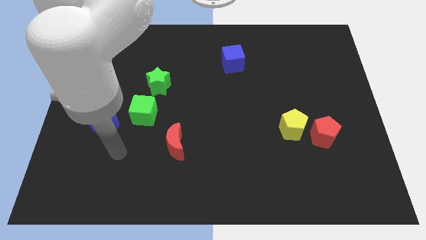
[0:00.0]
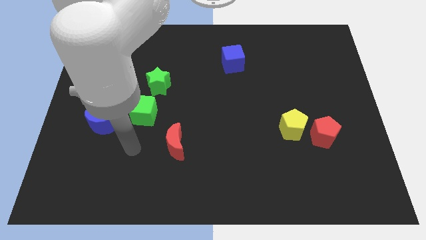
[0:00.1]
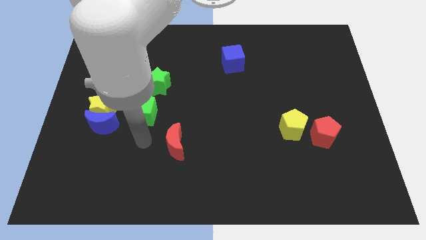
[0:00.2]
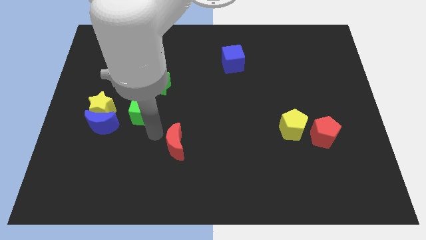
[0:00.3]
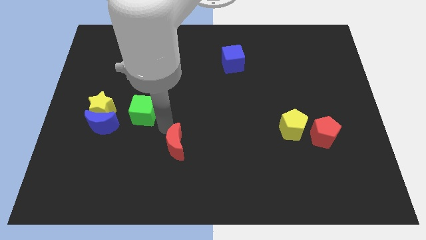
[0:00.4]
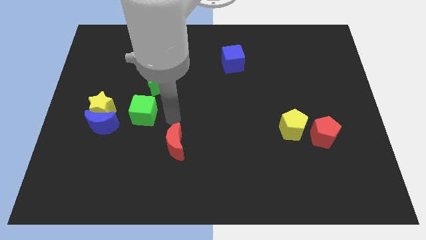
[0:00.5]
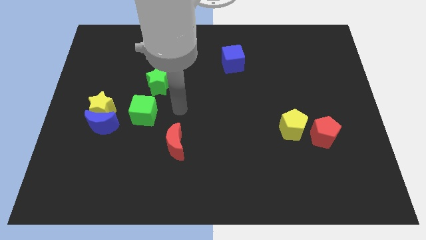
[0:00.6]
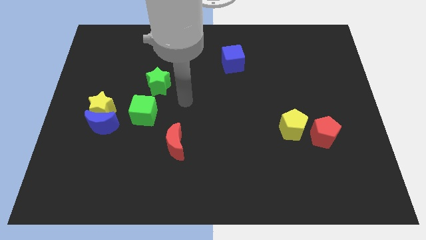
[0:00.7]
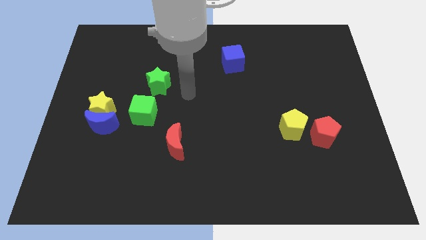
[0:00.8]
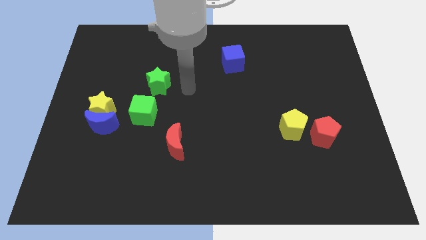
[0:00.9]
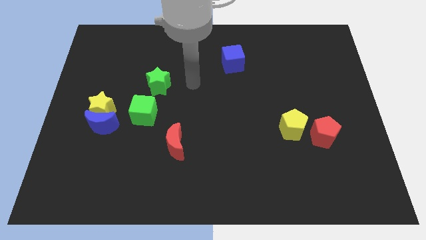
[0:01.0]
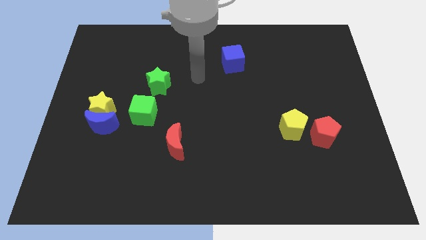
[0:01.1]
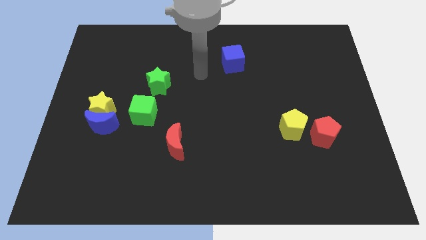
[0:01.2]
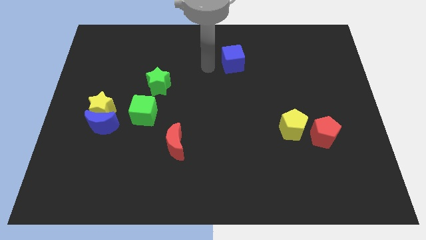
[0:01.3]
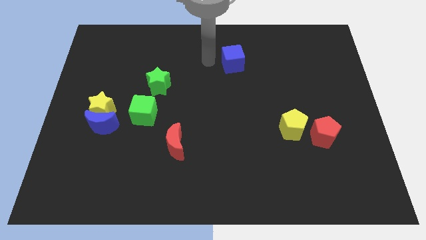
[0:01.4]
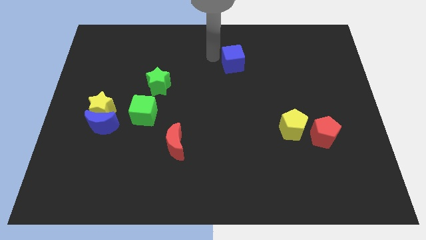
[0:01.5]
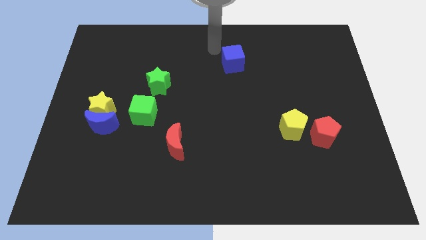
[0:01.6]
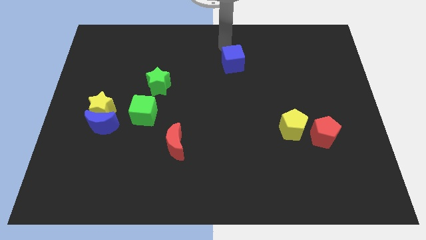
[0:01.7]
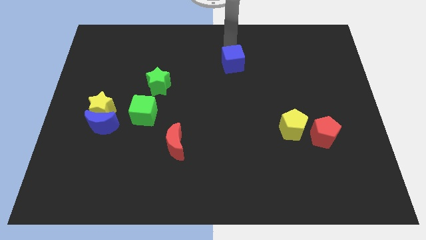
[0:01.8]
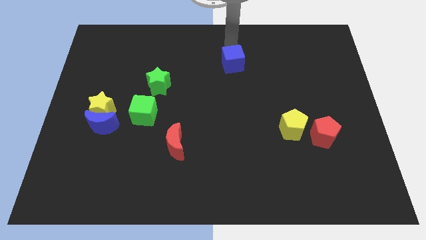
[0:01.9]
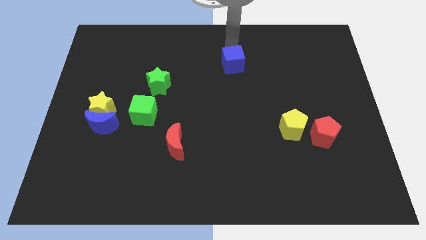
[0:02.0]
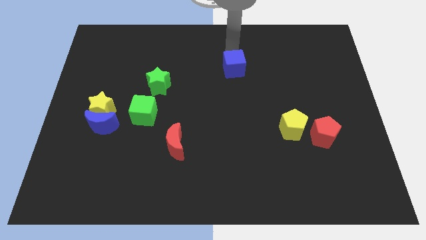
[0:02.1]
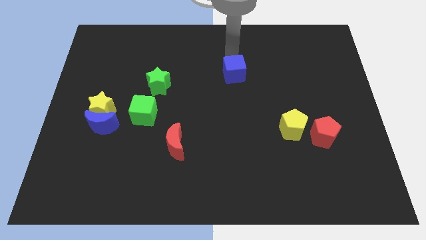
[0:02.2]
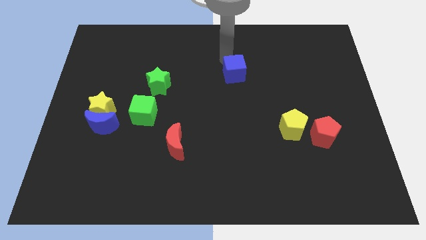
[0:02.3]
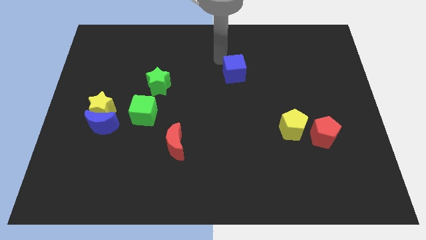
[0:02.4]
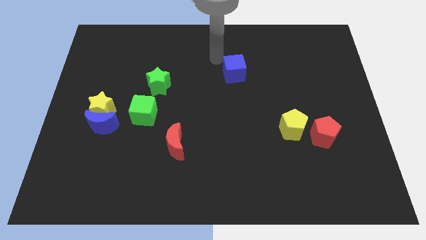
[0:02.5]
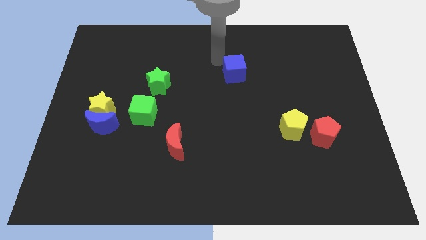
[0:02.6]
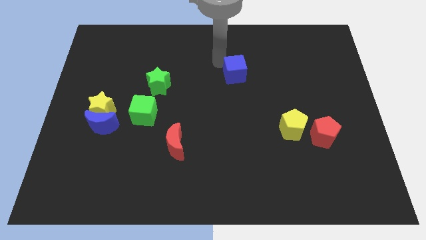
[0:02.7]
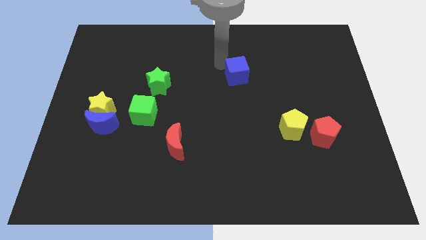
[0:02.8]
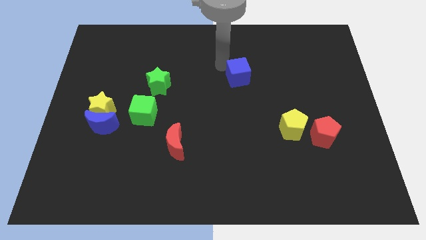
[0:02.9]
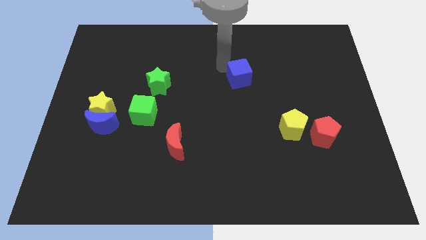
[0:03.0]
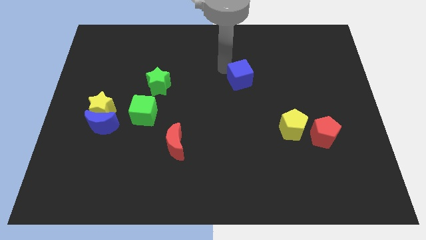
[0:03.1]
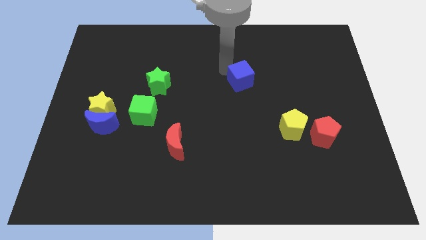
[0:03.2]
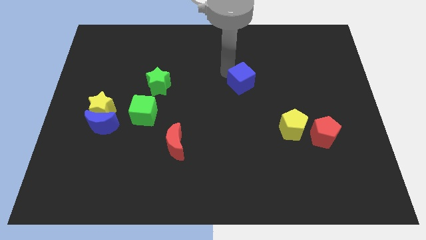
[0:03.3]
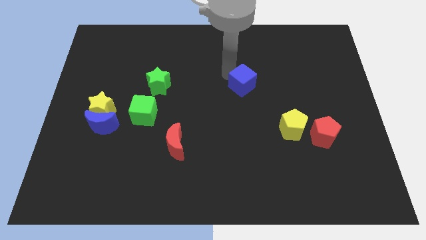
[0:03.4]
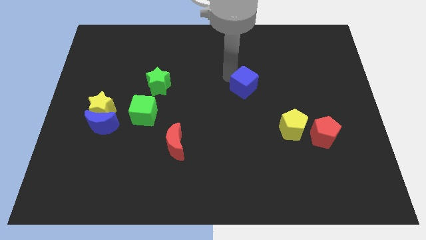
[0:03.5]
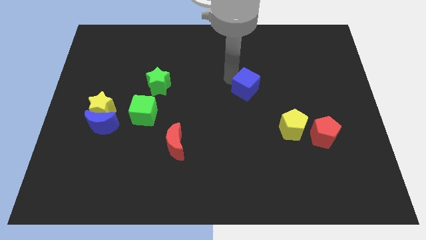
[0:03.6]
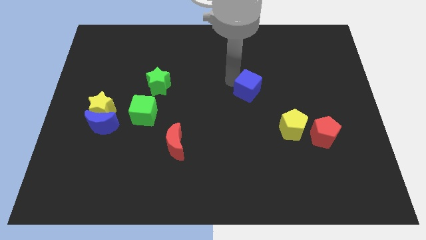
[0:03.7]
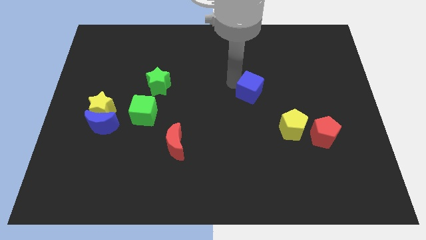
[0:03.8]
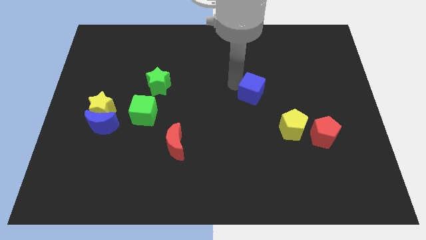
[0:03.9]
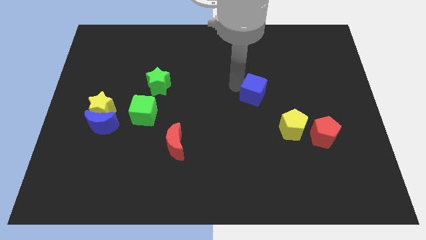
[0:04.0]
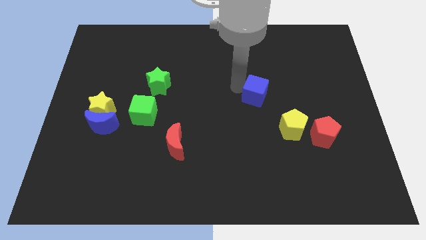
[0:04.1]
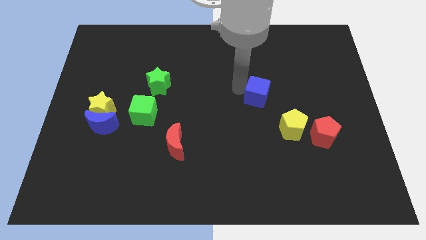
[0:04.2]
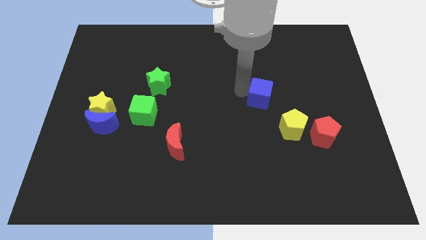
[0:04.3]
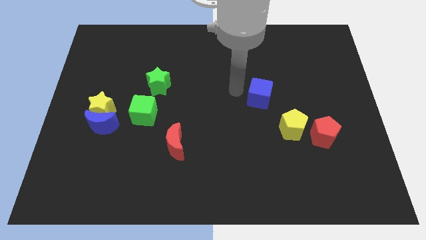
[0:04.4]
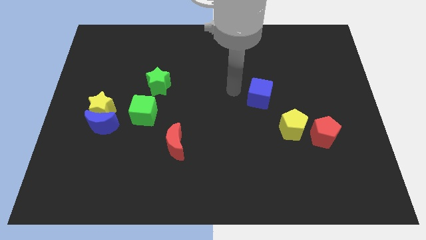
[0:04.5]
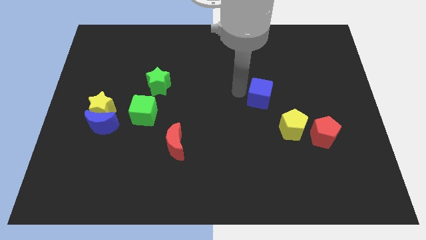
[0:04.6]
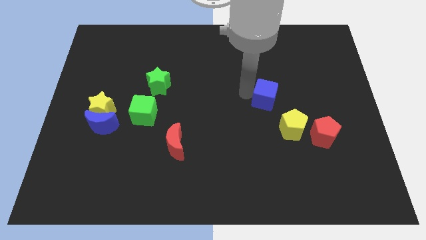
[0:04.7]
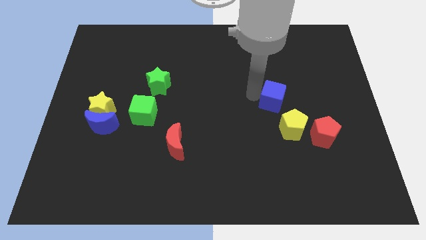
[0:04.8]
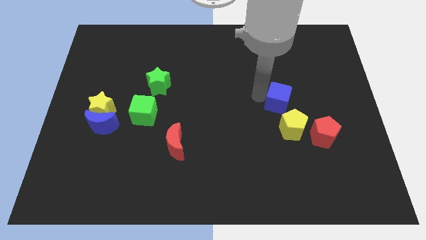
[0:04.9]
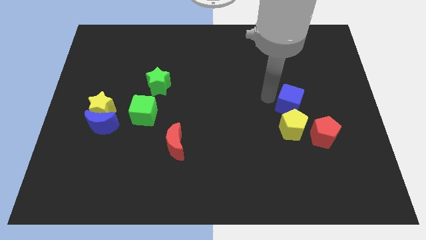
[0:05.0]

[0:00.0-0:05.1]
slide the blue cube diagonally up and to the left of the red pentagon

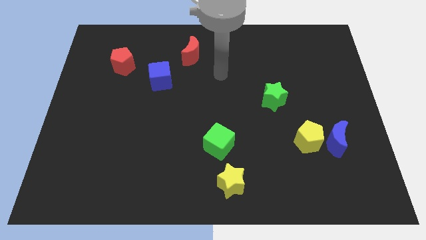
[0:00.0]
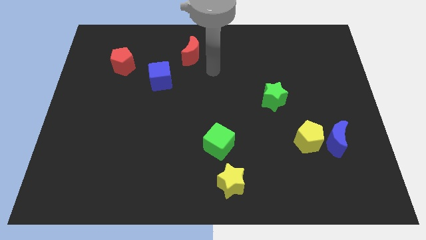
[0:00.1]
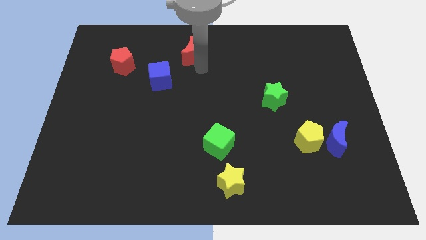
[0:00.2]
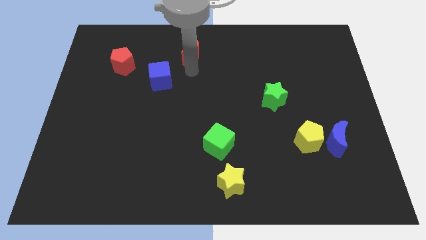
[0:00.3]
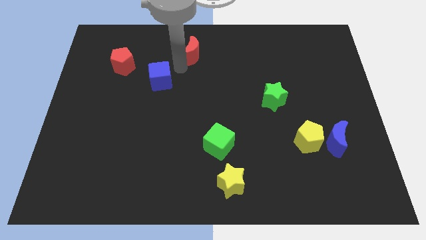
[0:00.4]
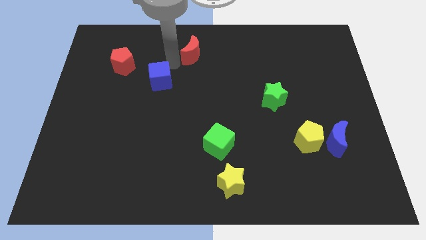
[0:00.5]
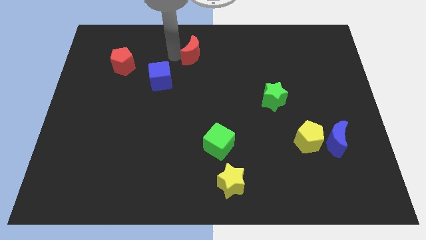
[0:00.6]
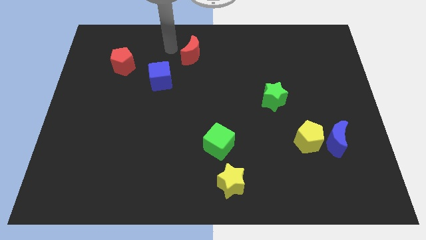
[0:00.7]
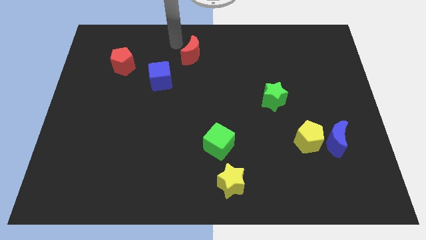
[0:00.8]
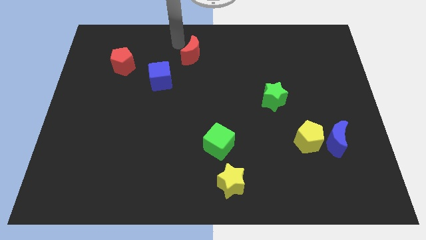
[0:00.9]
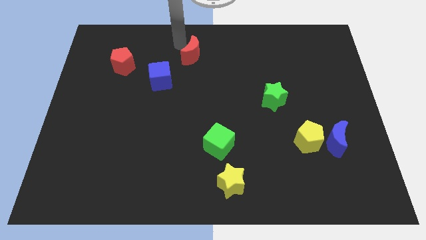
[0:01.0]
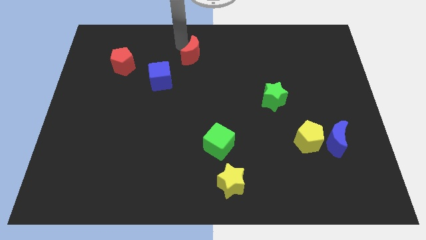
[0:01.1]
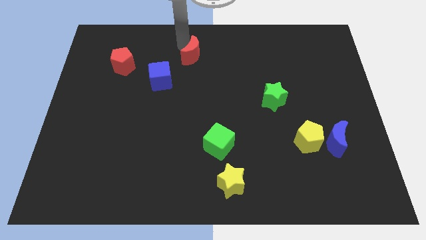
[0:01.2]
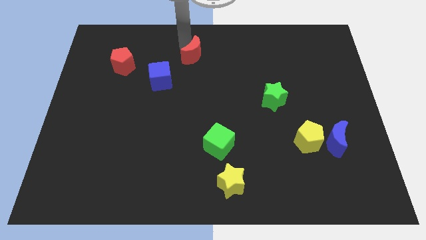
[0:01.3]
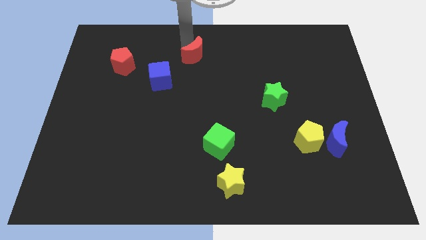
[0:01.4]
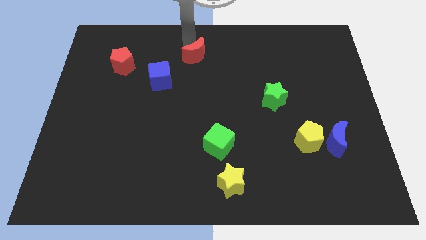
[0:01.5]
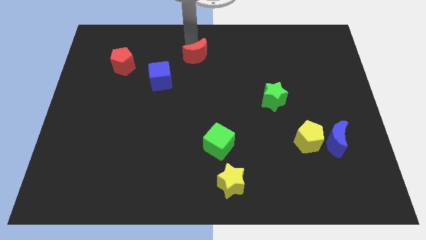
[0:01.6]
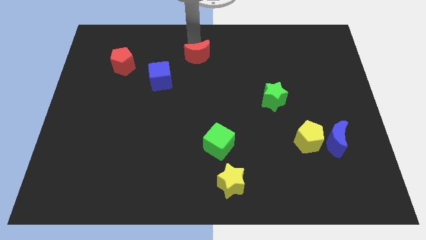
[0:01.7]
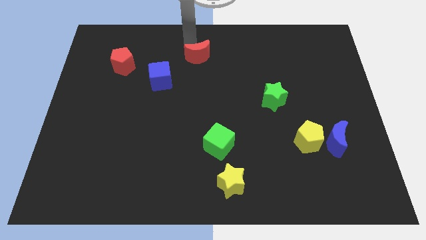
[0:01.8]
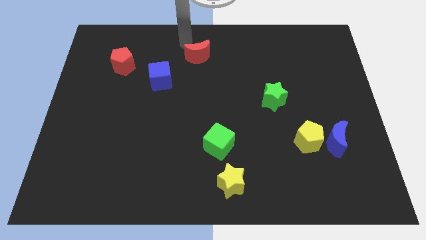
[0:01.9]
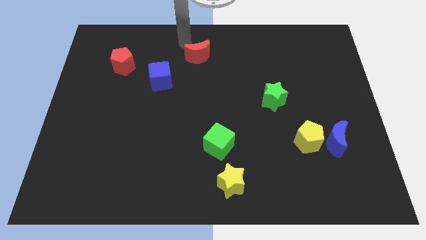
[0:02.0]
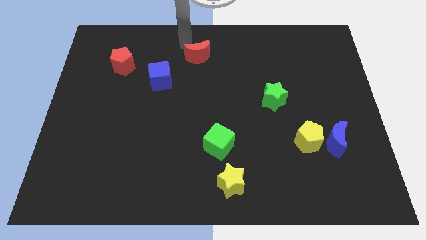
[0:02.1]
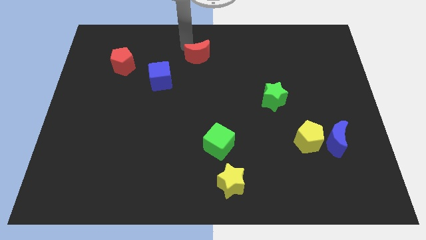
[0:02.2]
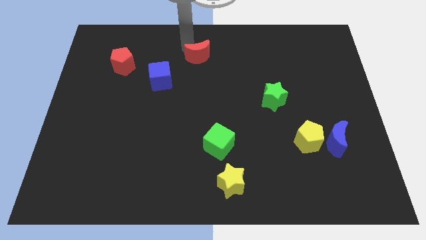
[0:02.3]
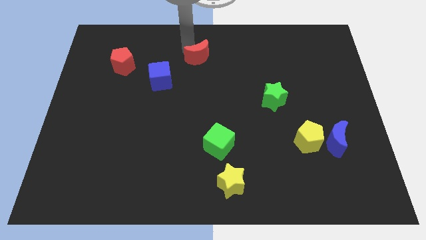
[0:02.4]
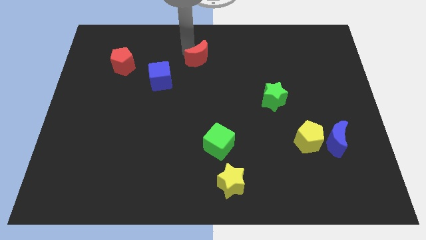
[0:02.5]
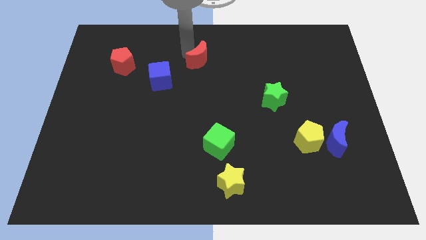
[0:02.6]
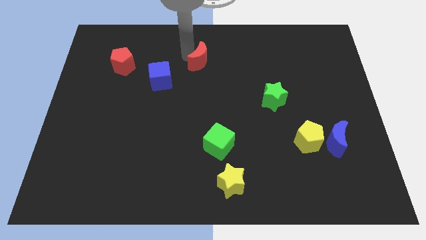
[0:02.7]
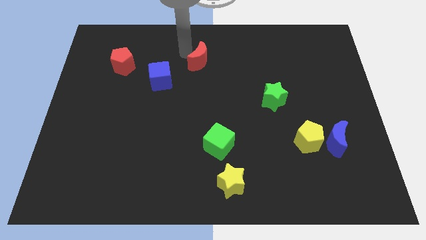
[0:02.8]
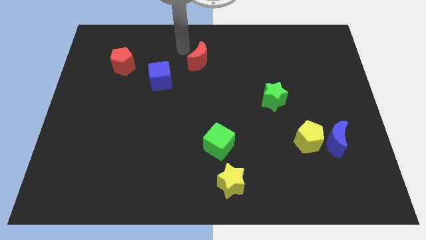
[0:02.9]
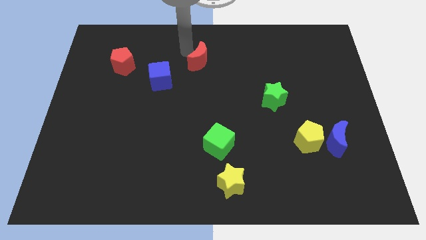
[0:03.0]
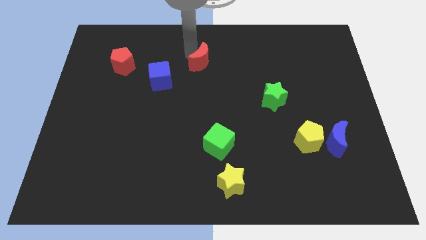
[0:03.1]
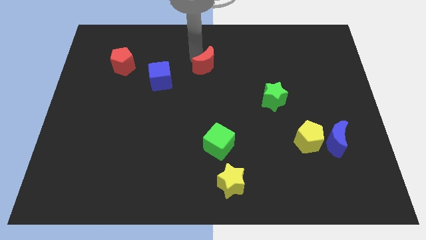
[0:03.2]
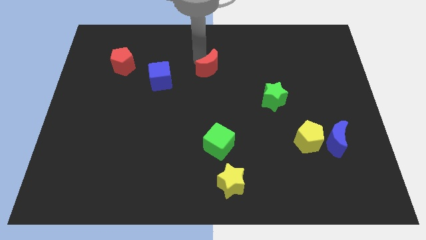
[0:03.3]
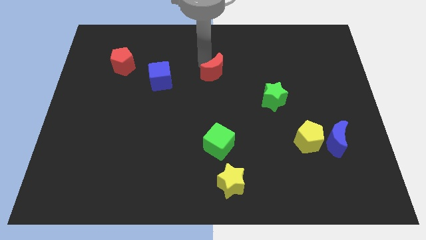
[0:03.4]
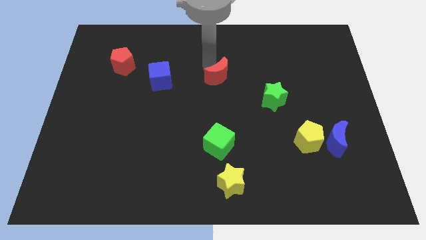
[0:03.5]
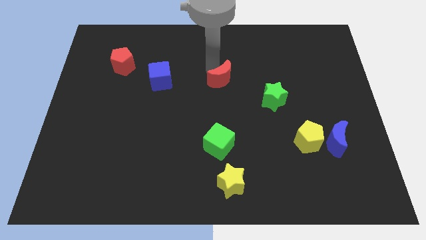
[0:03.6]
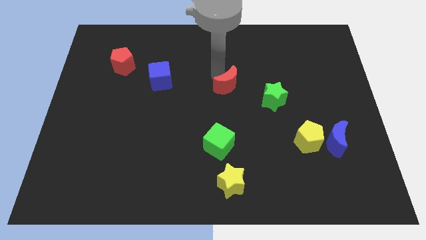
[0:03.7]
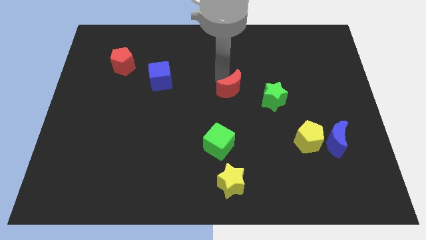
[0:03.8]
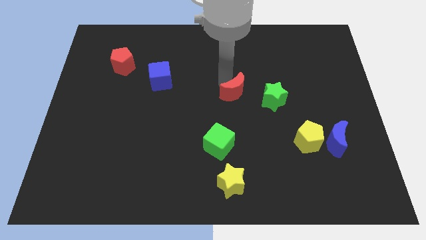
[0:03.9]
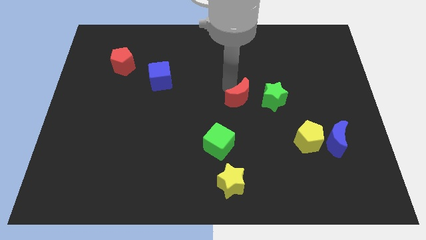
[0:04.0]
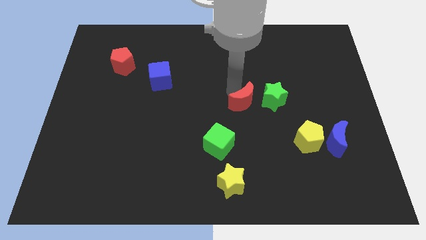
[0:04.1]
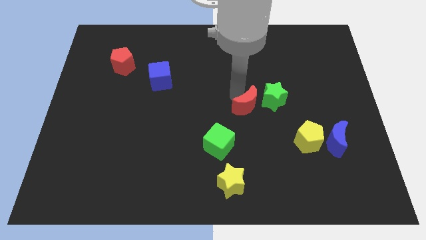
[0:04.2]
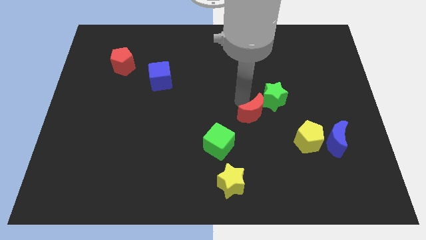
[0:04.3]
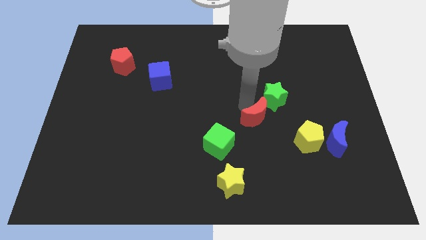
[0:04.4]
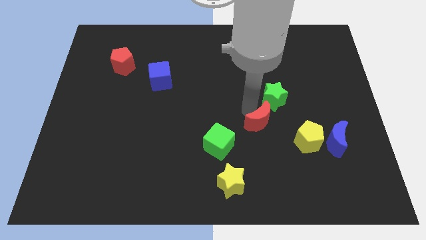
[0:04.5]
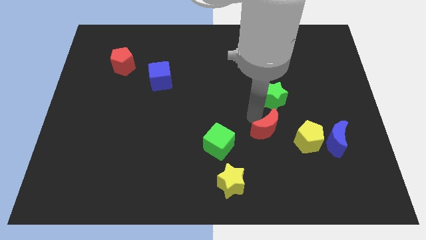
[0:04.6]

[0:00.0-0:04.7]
slide the red moon to the left of the blue moon
